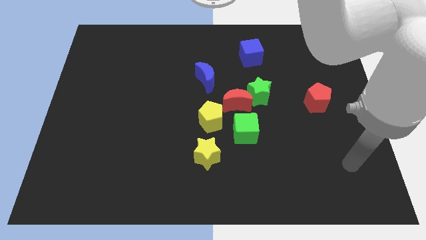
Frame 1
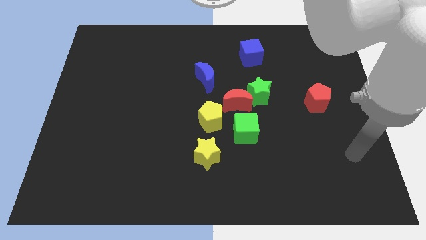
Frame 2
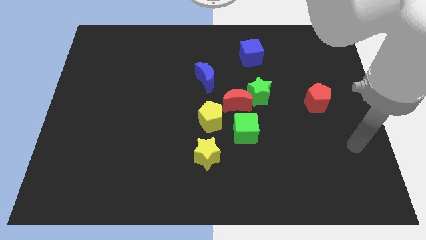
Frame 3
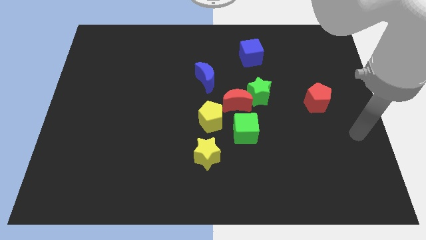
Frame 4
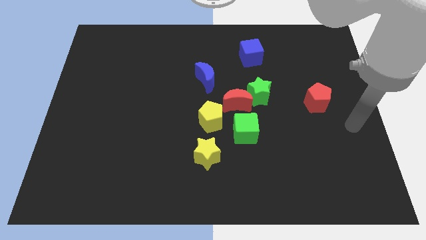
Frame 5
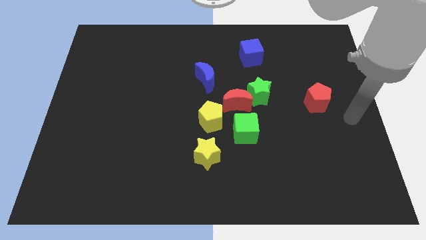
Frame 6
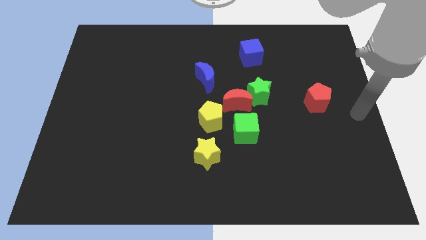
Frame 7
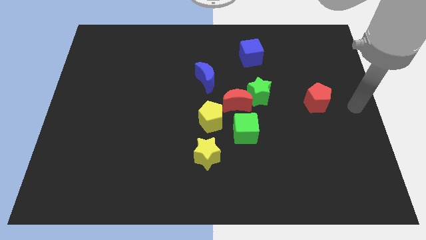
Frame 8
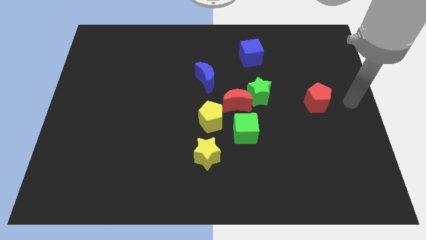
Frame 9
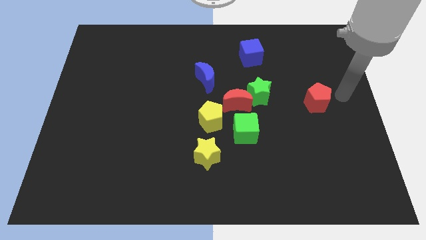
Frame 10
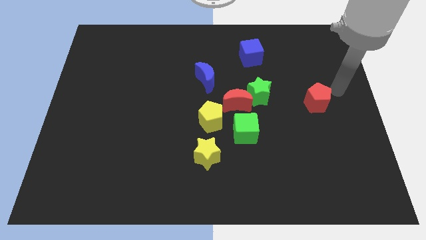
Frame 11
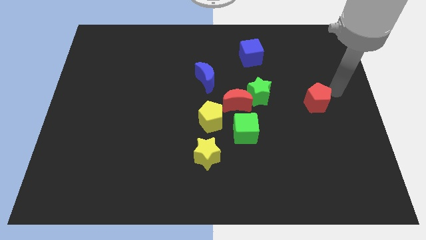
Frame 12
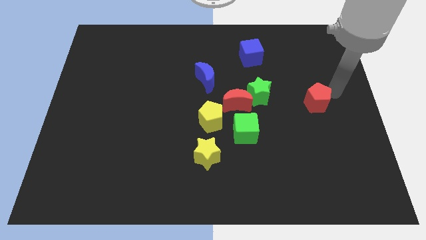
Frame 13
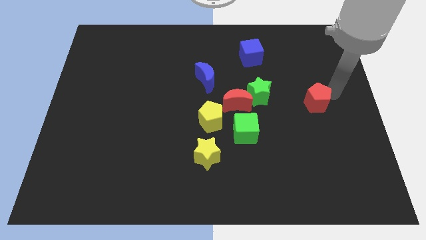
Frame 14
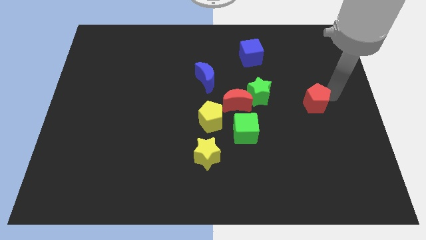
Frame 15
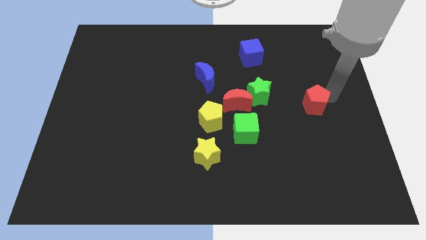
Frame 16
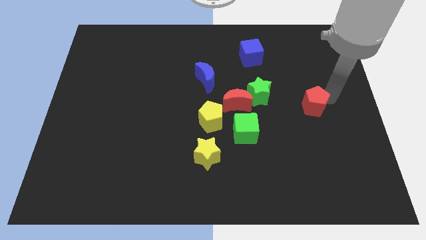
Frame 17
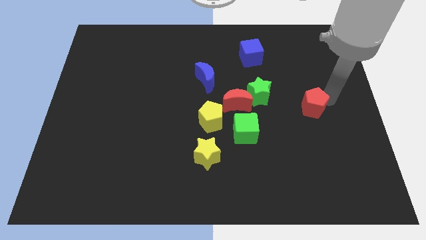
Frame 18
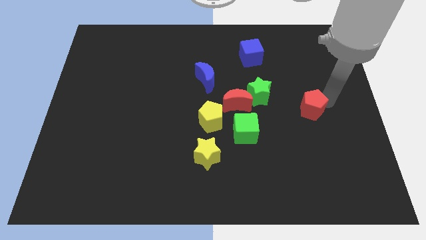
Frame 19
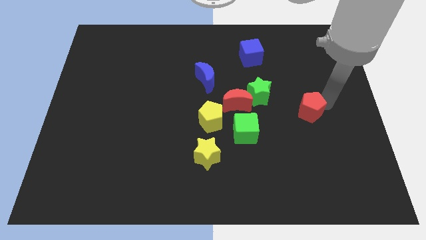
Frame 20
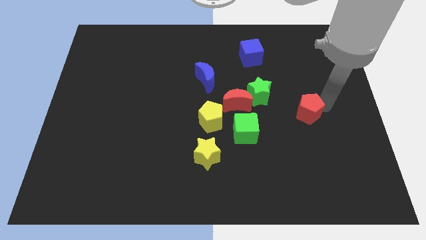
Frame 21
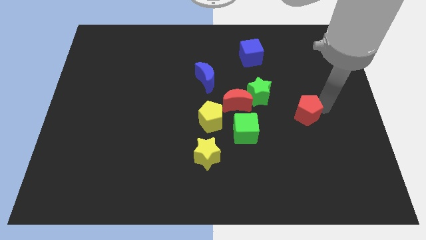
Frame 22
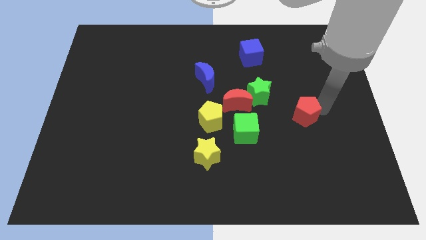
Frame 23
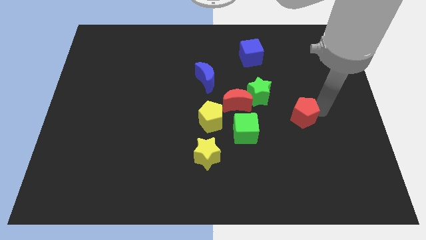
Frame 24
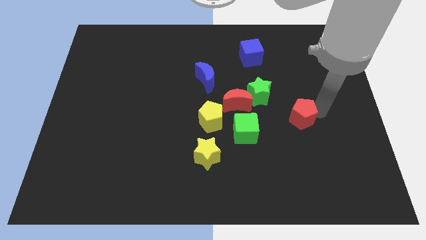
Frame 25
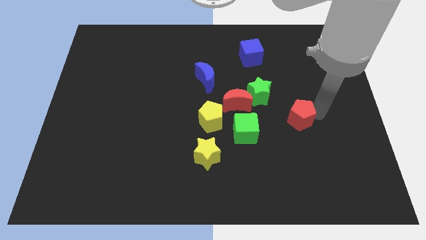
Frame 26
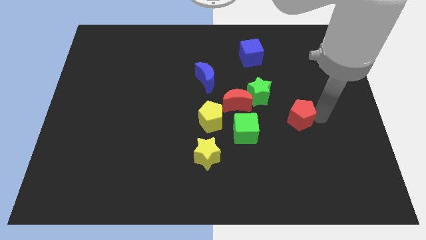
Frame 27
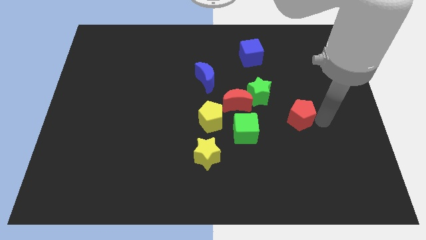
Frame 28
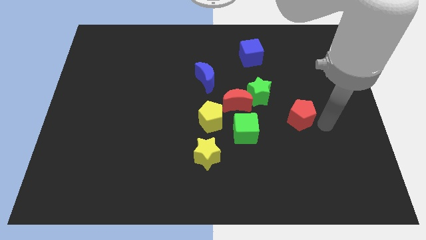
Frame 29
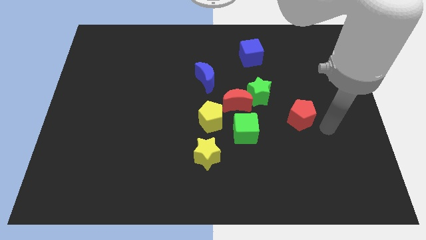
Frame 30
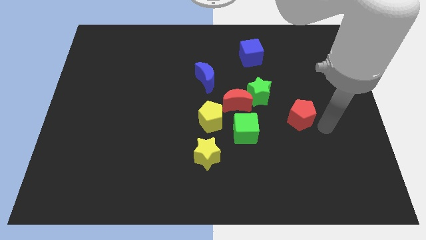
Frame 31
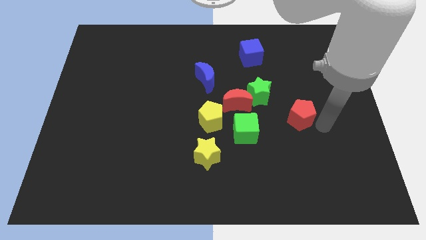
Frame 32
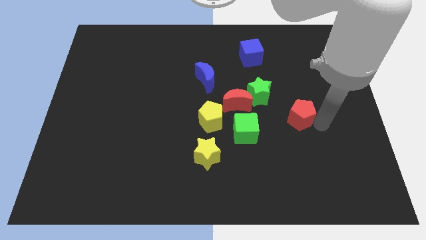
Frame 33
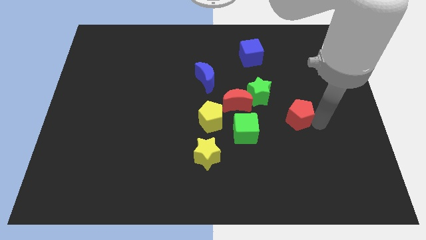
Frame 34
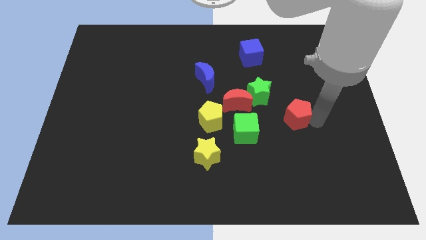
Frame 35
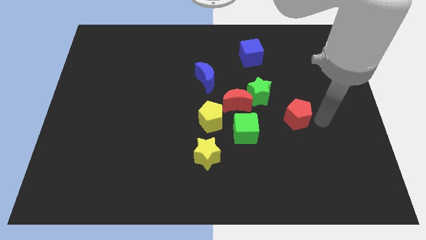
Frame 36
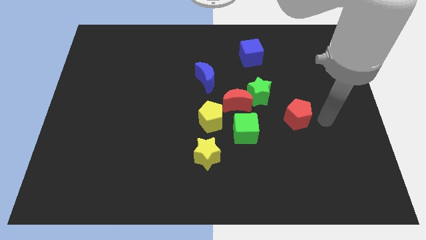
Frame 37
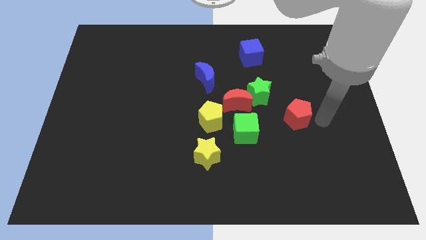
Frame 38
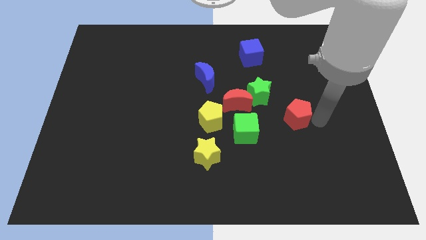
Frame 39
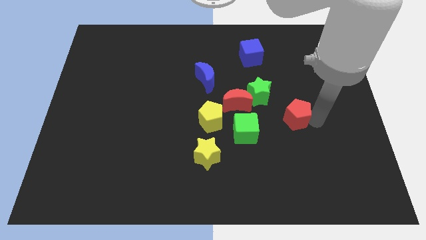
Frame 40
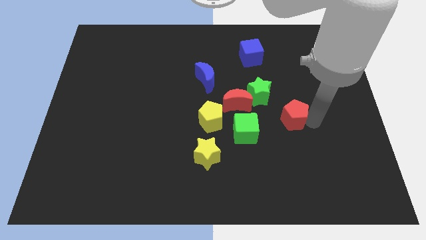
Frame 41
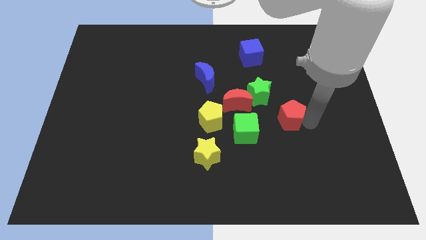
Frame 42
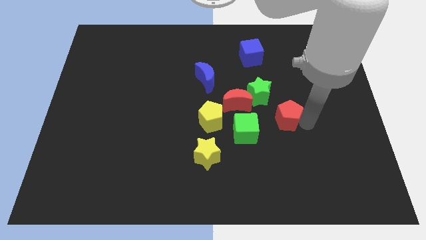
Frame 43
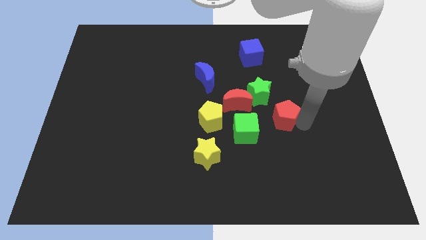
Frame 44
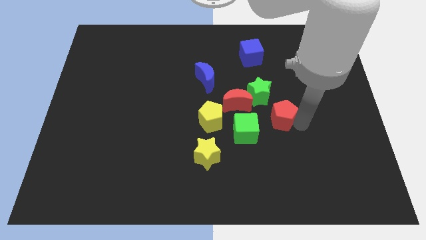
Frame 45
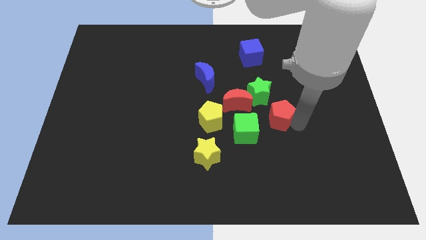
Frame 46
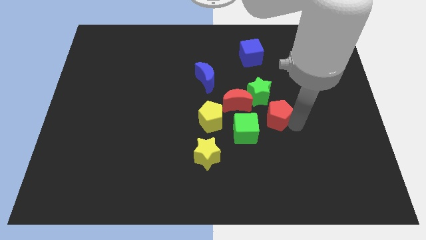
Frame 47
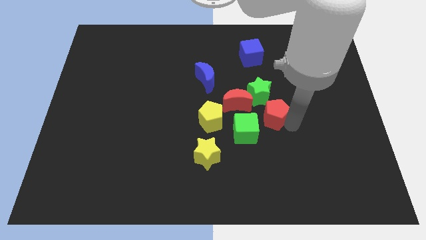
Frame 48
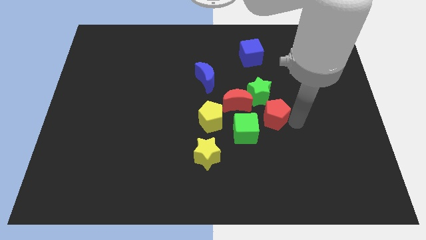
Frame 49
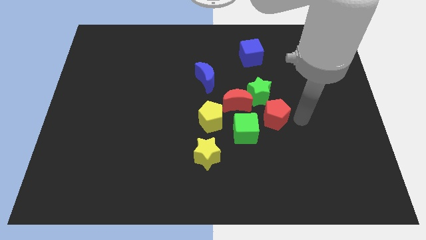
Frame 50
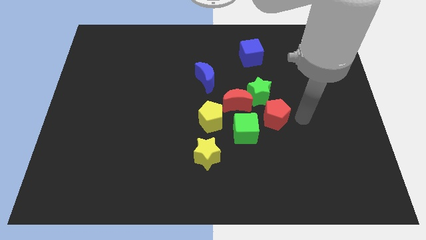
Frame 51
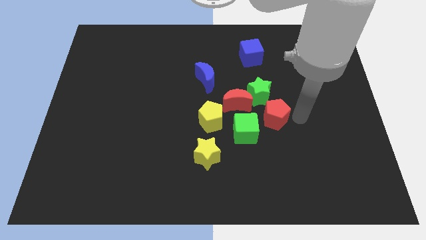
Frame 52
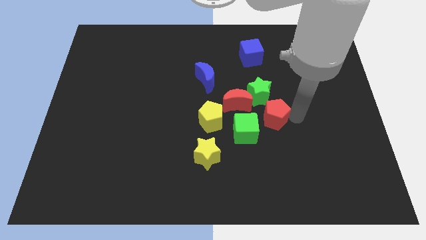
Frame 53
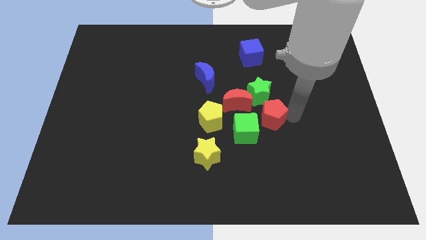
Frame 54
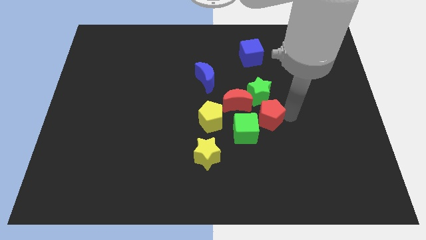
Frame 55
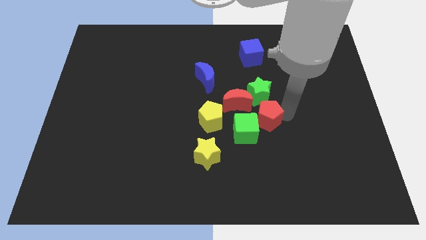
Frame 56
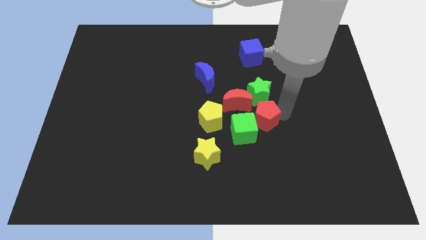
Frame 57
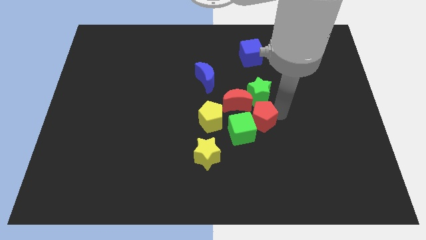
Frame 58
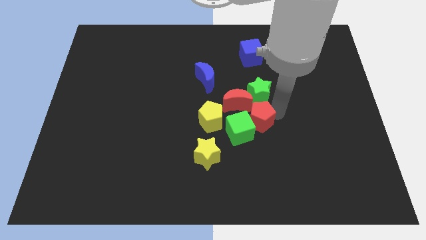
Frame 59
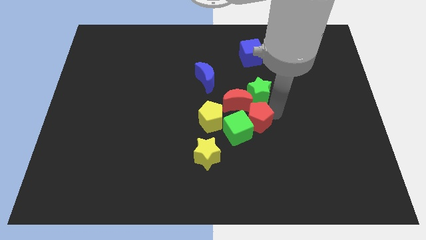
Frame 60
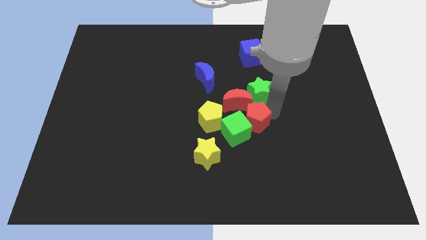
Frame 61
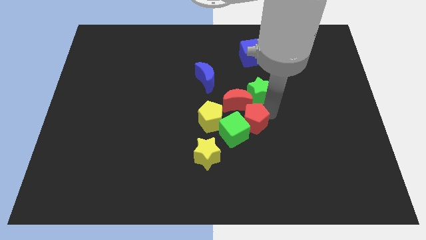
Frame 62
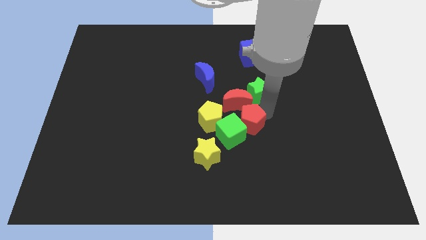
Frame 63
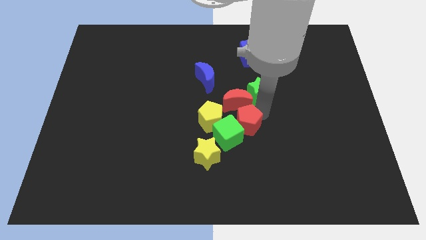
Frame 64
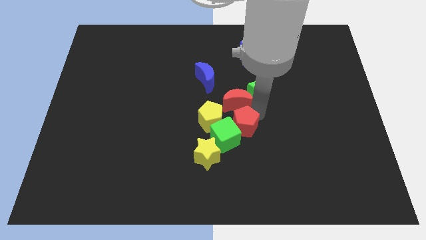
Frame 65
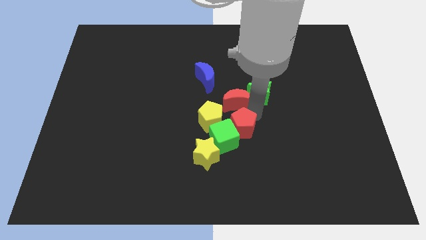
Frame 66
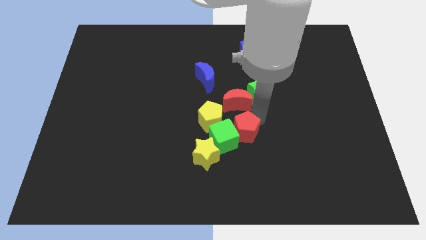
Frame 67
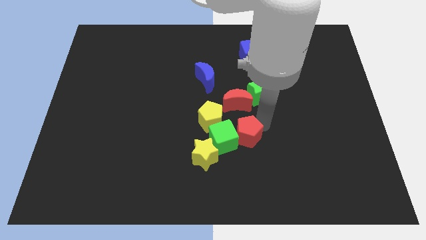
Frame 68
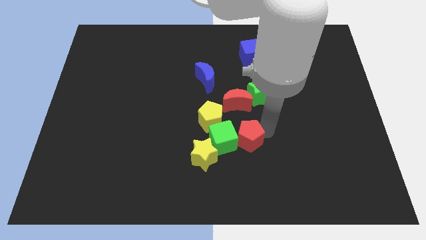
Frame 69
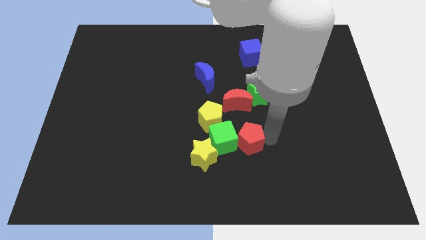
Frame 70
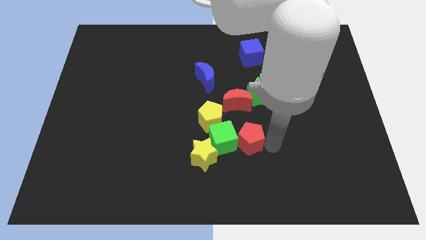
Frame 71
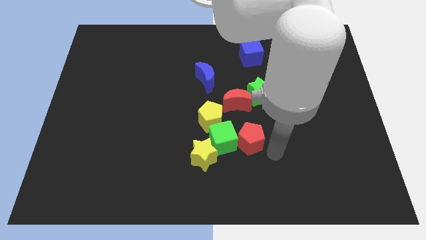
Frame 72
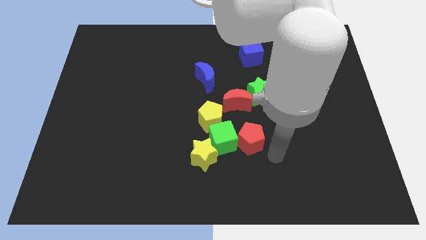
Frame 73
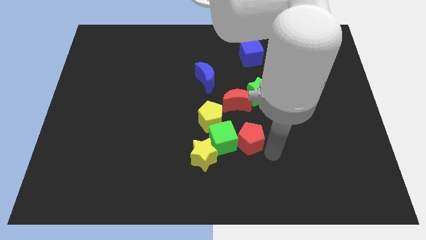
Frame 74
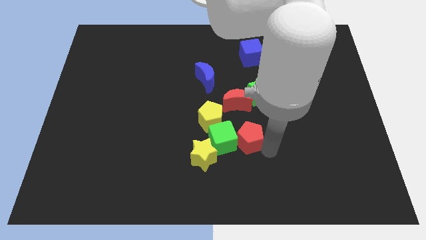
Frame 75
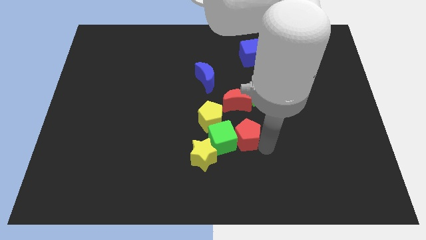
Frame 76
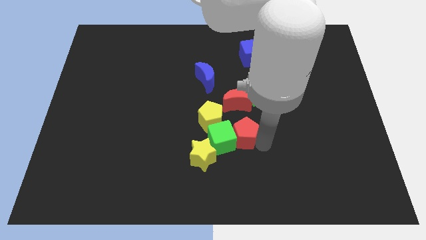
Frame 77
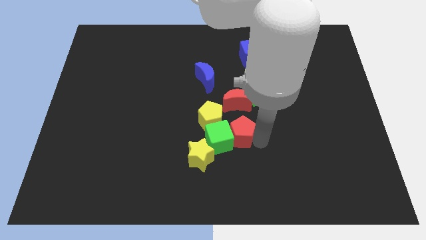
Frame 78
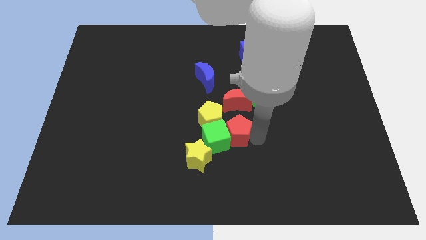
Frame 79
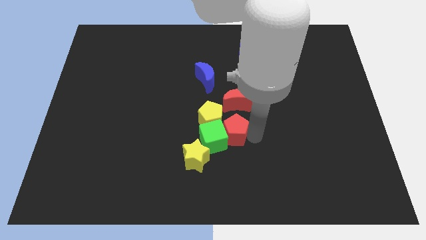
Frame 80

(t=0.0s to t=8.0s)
slide the red pentagon to the yellow pentagon
